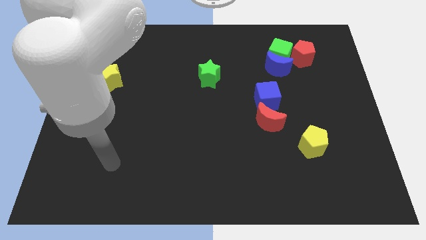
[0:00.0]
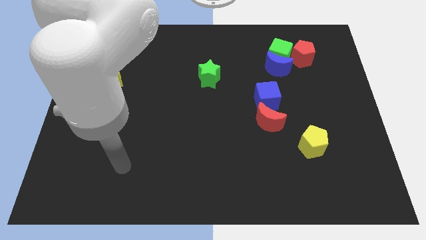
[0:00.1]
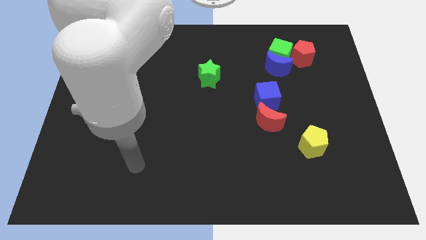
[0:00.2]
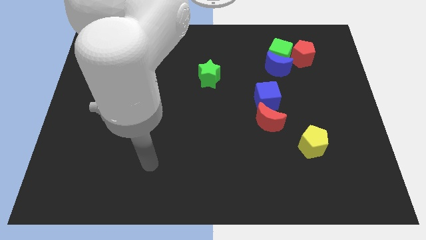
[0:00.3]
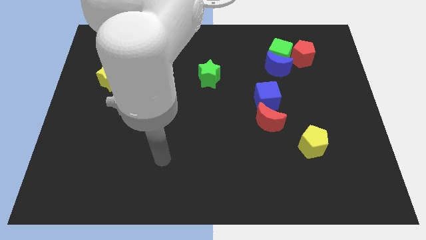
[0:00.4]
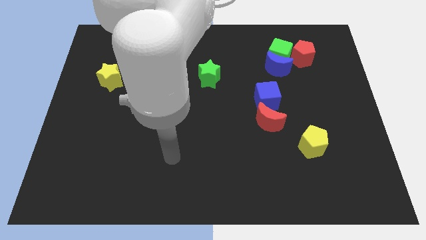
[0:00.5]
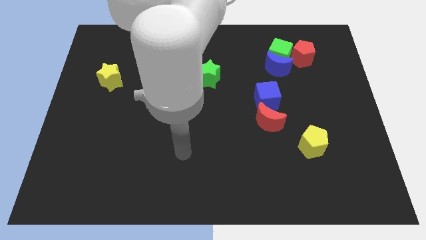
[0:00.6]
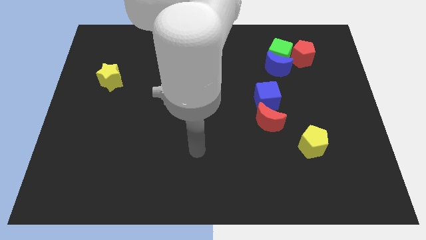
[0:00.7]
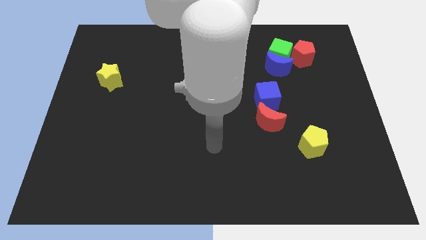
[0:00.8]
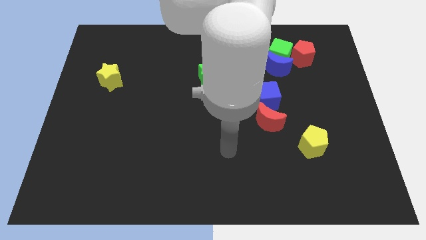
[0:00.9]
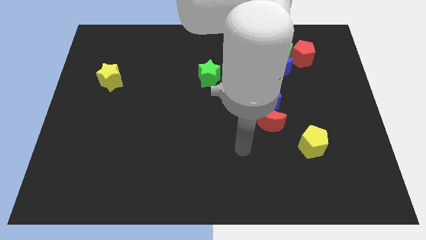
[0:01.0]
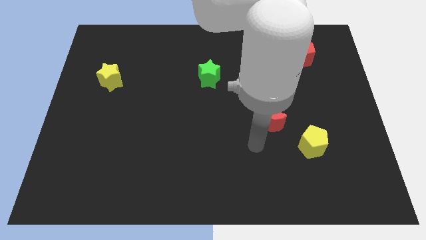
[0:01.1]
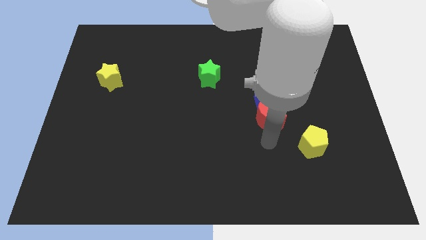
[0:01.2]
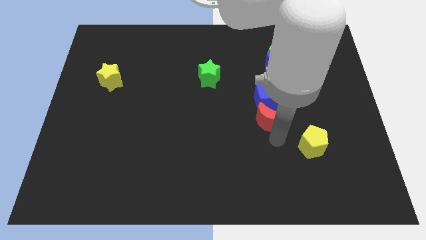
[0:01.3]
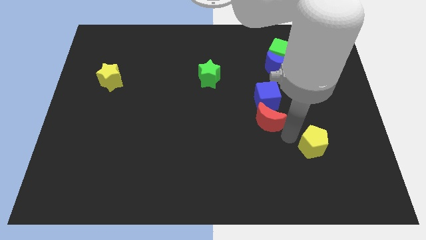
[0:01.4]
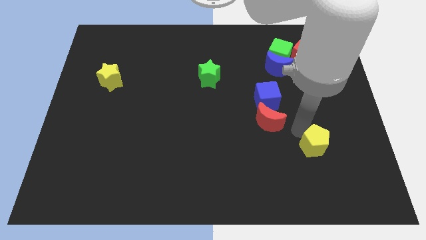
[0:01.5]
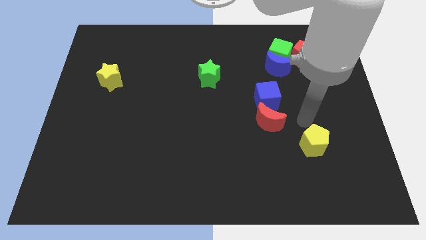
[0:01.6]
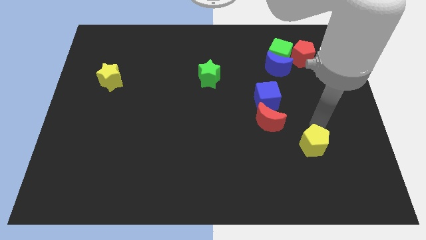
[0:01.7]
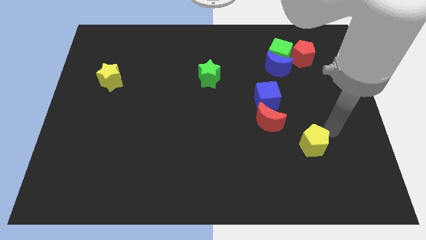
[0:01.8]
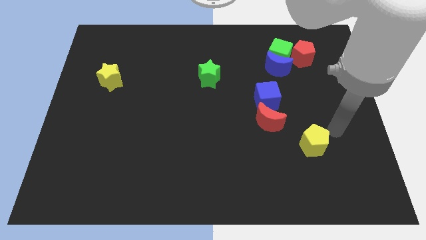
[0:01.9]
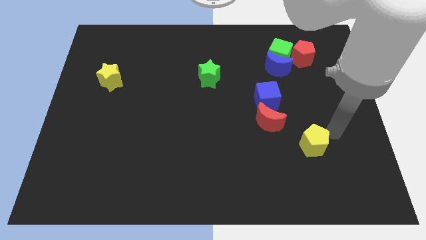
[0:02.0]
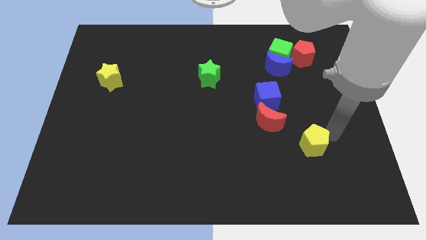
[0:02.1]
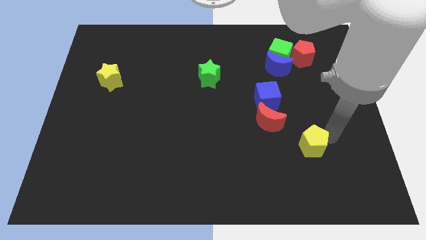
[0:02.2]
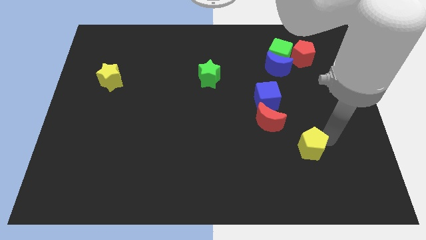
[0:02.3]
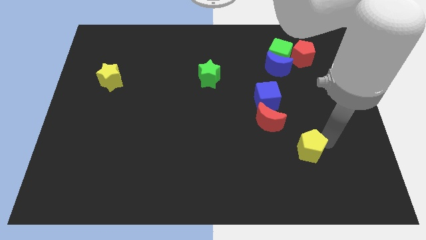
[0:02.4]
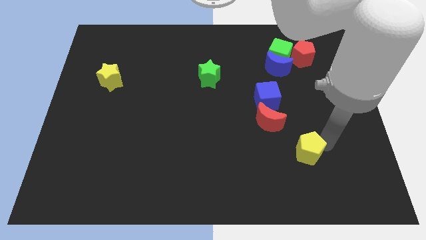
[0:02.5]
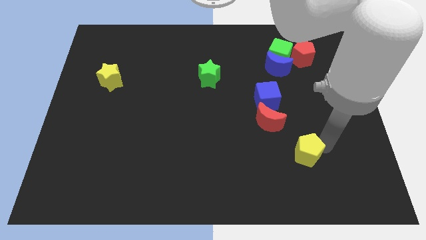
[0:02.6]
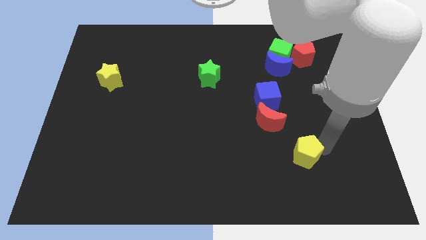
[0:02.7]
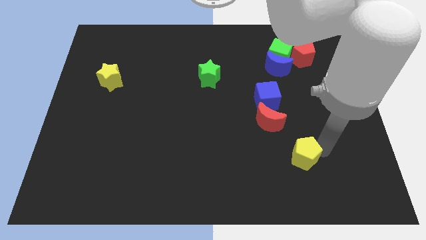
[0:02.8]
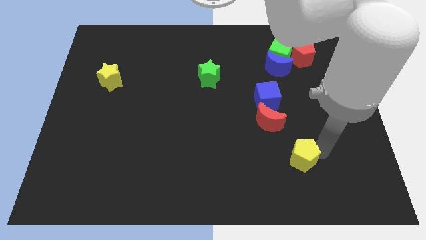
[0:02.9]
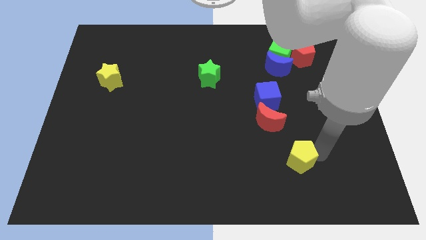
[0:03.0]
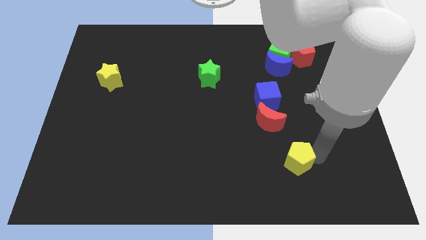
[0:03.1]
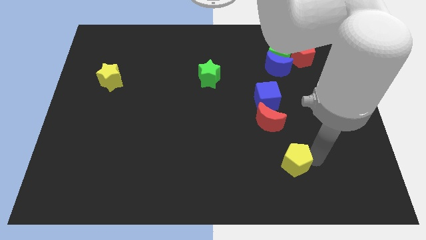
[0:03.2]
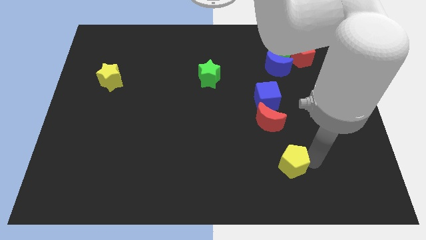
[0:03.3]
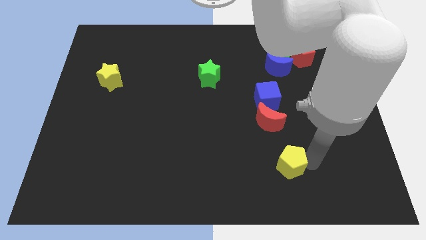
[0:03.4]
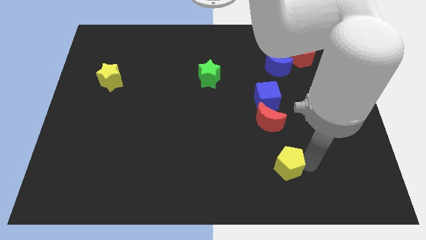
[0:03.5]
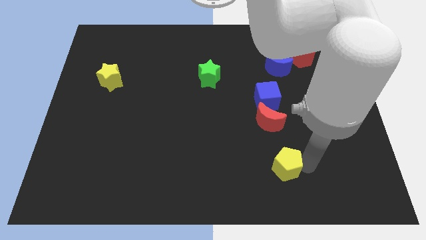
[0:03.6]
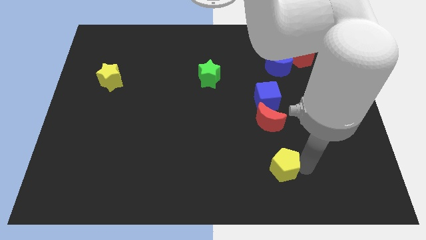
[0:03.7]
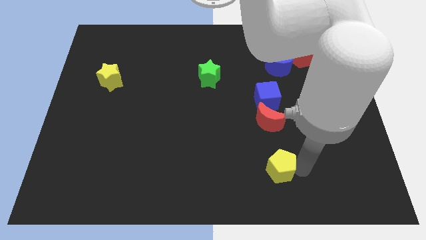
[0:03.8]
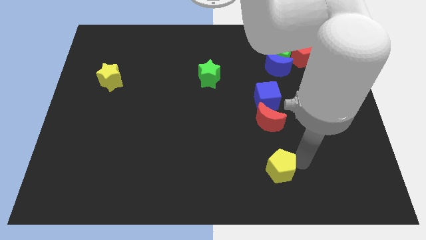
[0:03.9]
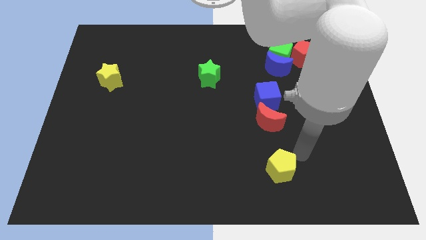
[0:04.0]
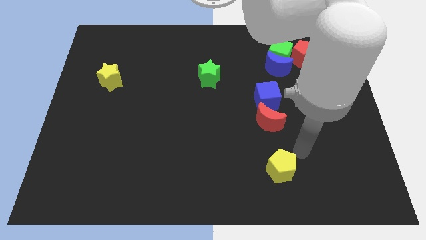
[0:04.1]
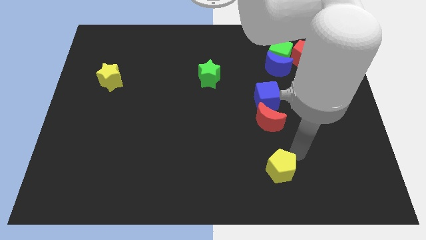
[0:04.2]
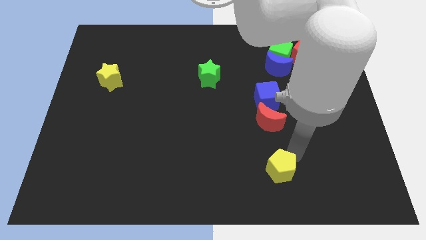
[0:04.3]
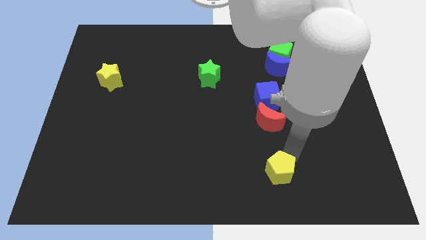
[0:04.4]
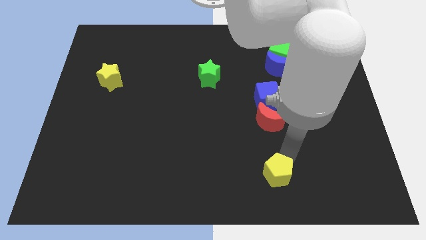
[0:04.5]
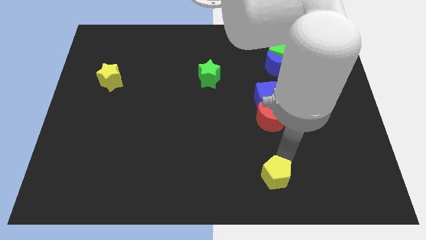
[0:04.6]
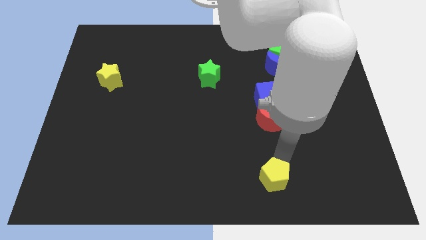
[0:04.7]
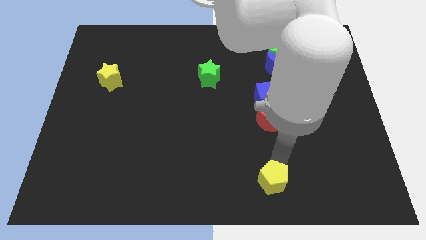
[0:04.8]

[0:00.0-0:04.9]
push the yellow pentagon to the bottom

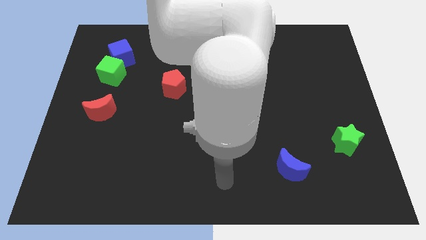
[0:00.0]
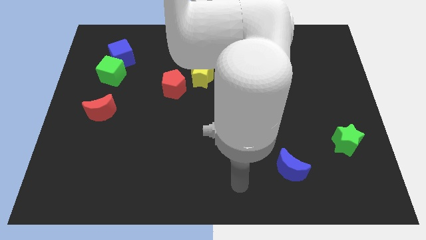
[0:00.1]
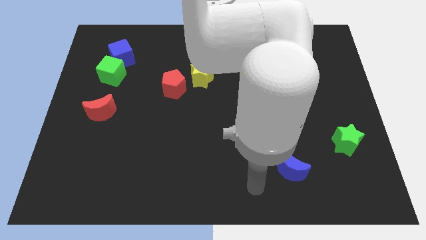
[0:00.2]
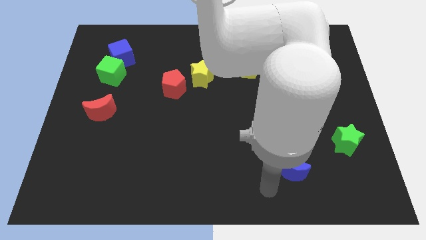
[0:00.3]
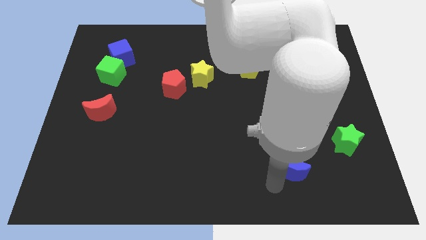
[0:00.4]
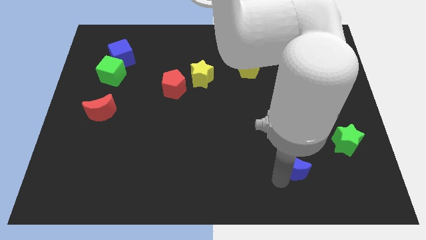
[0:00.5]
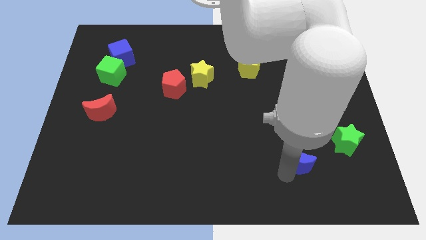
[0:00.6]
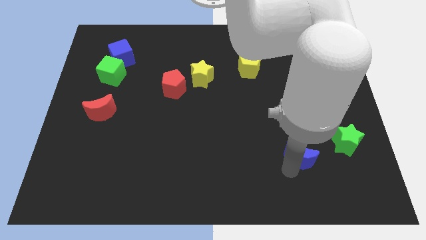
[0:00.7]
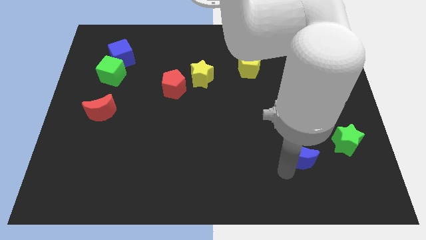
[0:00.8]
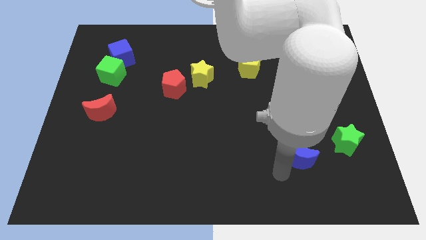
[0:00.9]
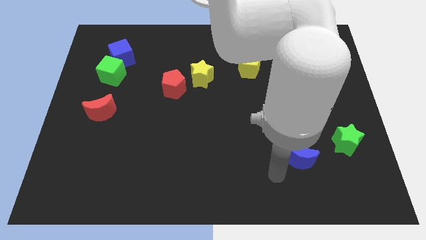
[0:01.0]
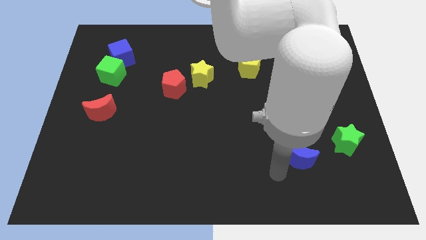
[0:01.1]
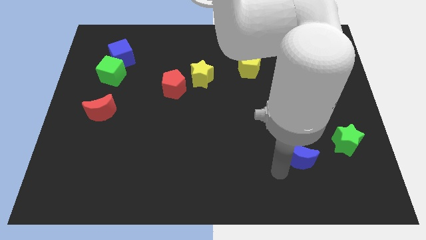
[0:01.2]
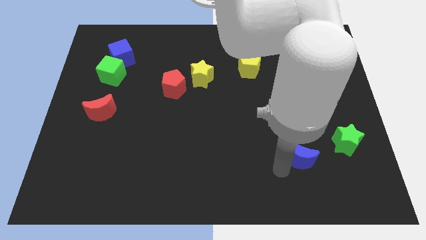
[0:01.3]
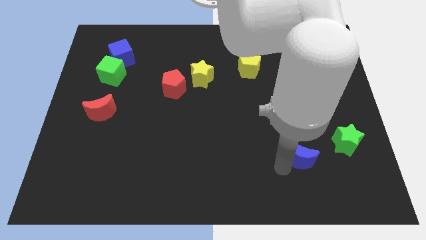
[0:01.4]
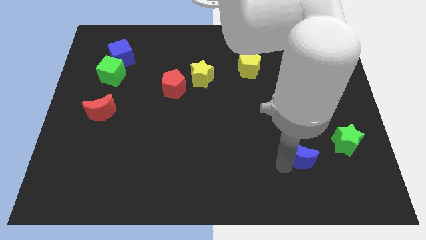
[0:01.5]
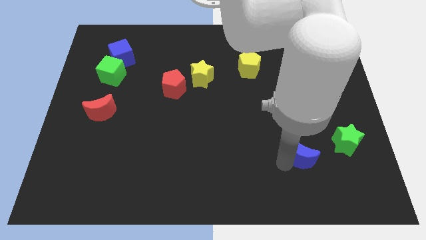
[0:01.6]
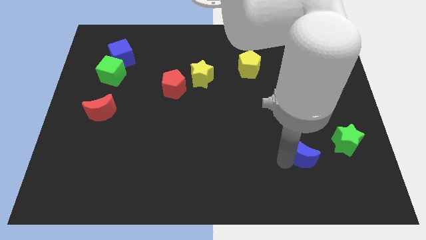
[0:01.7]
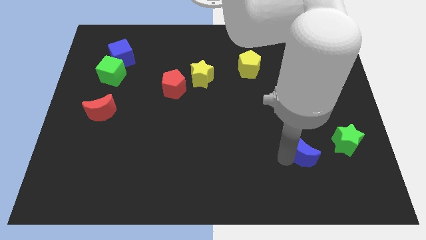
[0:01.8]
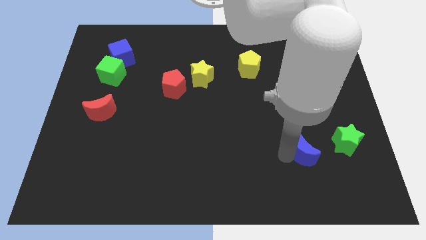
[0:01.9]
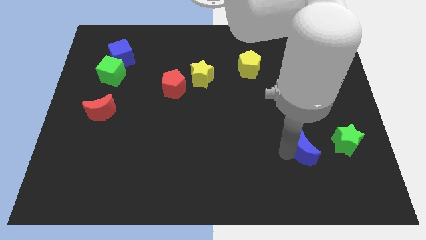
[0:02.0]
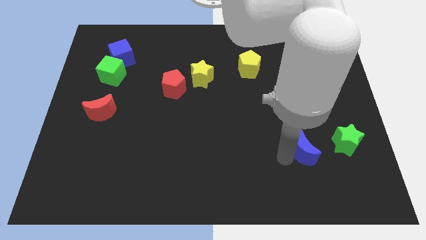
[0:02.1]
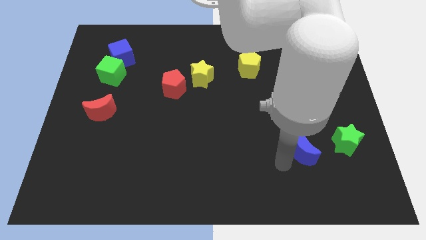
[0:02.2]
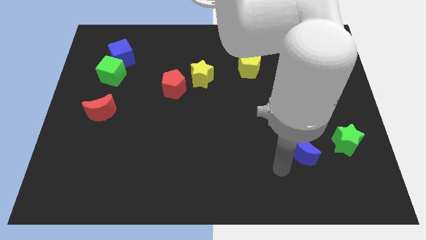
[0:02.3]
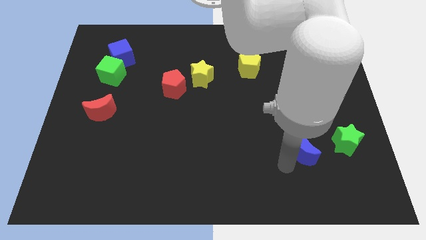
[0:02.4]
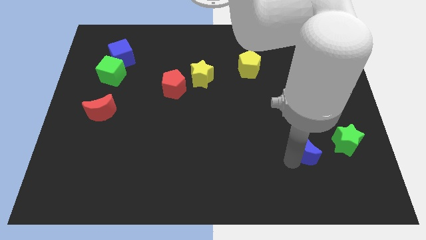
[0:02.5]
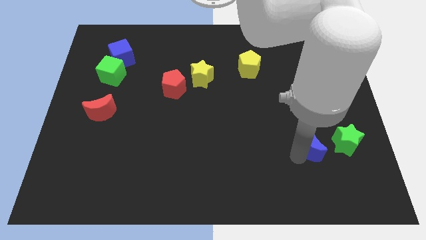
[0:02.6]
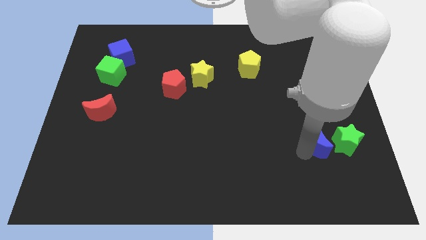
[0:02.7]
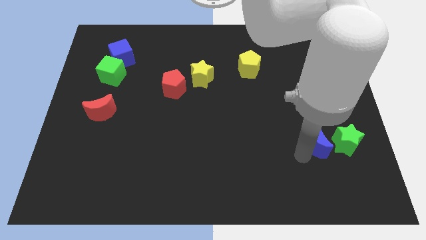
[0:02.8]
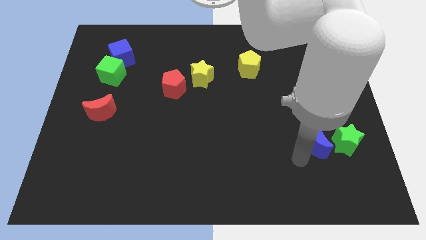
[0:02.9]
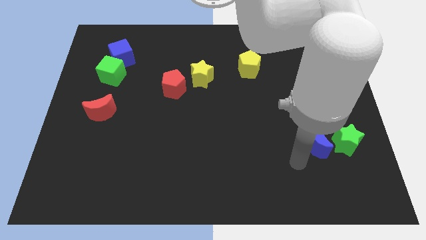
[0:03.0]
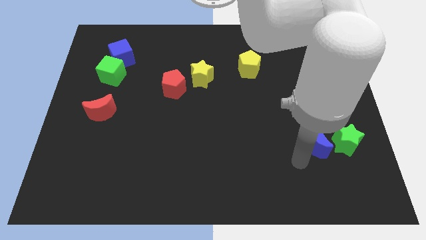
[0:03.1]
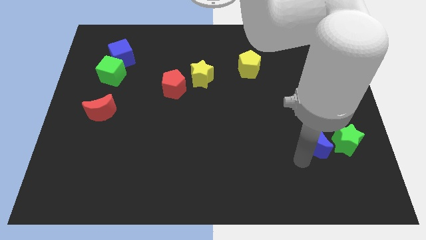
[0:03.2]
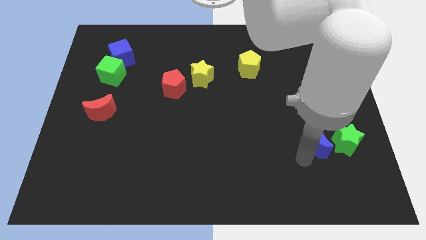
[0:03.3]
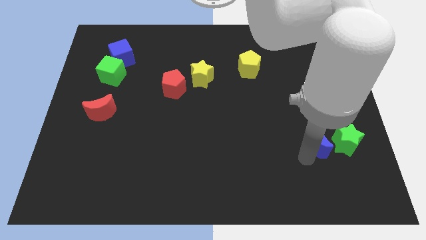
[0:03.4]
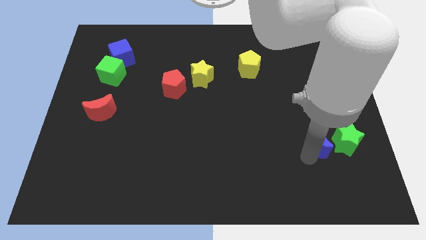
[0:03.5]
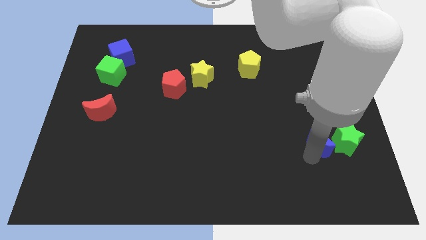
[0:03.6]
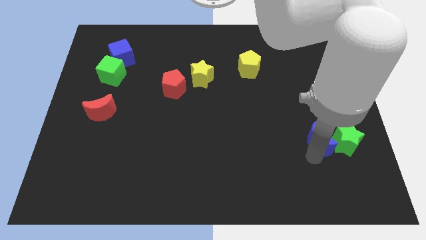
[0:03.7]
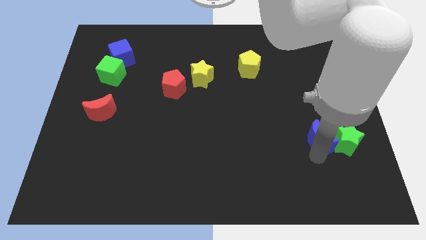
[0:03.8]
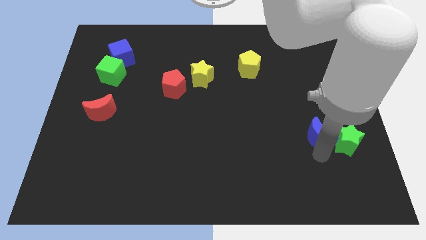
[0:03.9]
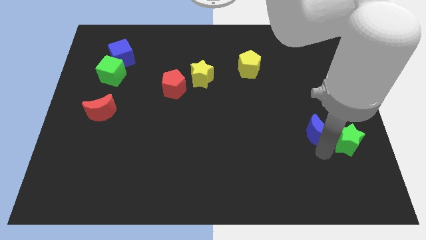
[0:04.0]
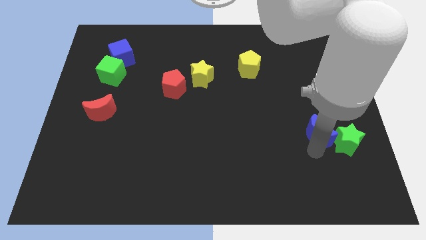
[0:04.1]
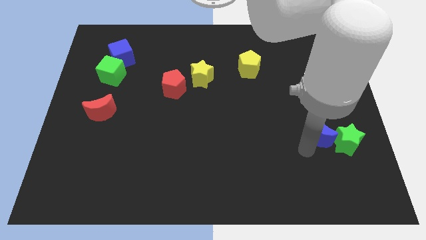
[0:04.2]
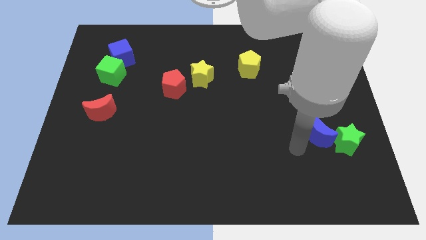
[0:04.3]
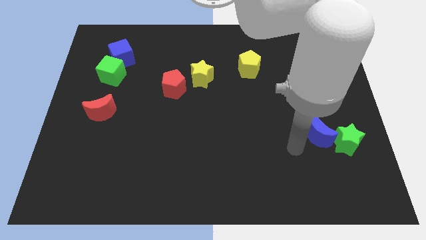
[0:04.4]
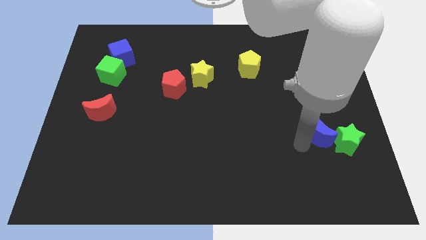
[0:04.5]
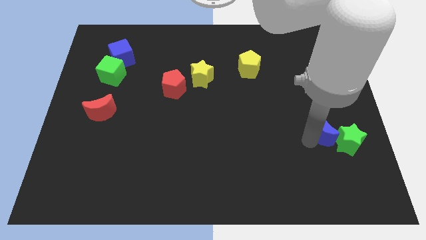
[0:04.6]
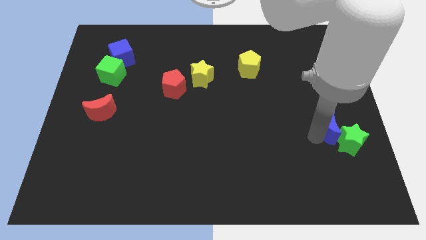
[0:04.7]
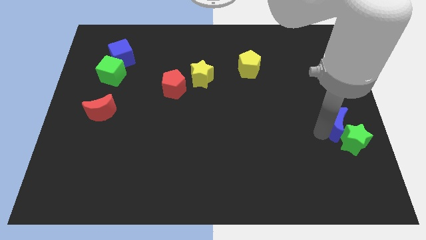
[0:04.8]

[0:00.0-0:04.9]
slide the blue moon to the right side of the board
